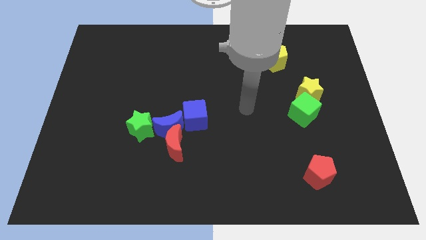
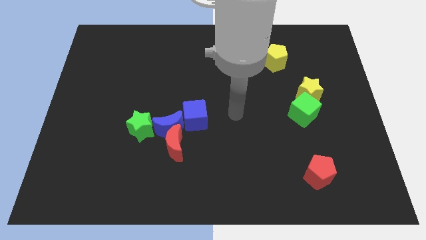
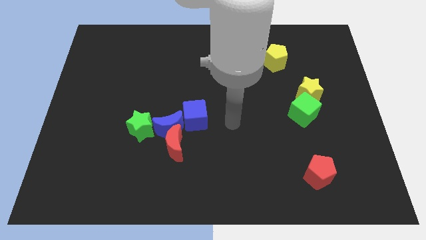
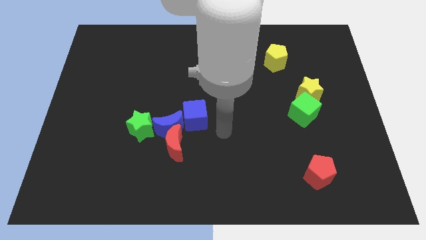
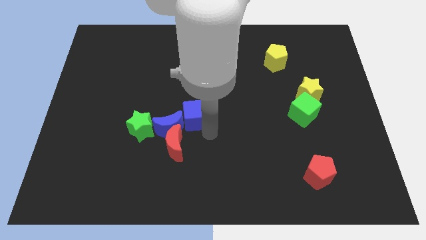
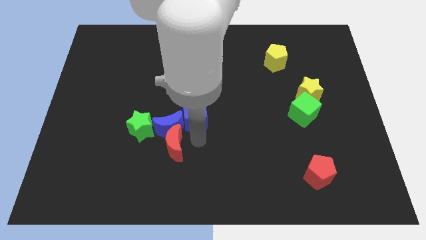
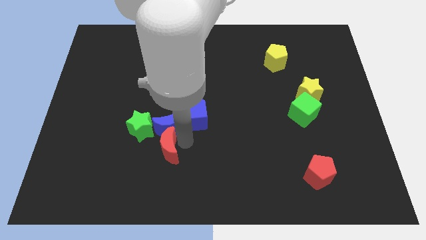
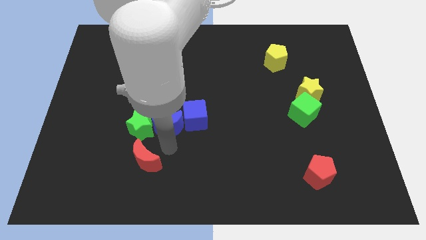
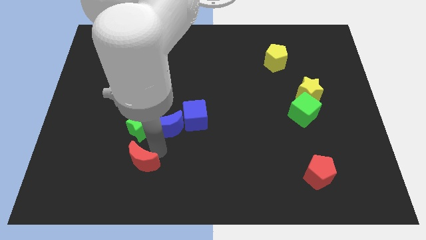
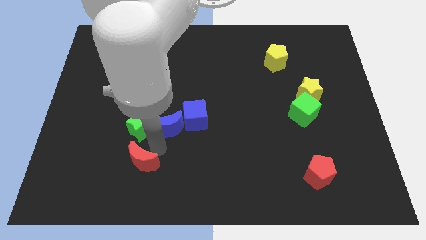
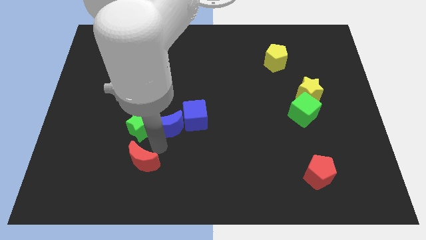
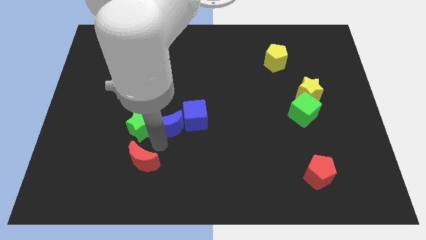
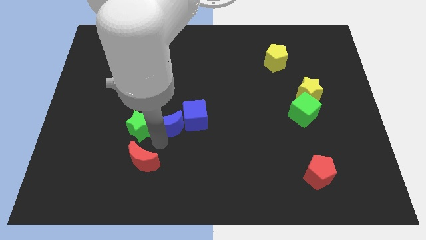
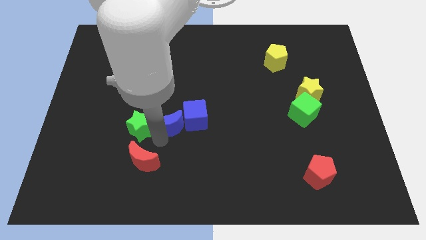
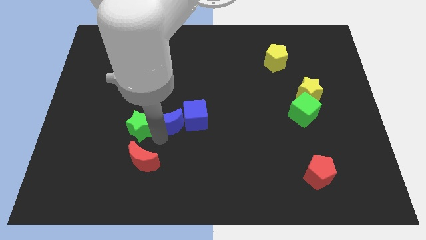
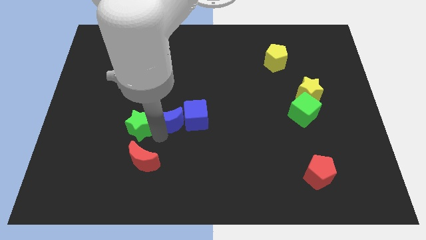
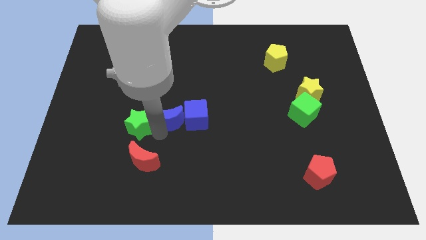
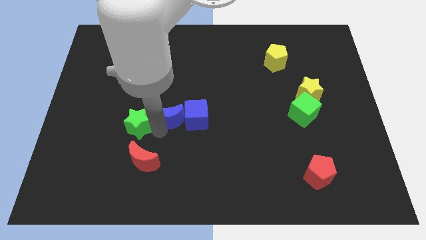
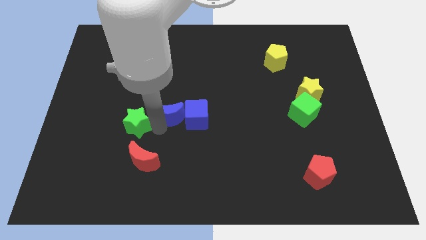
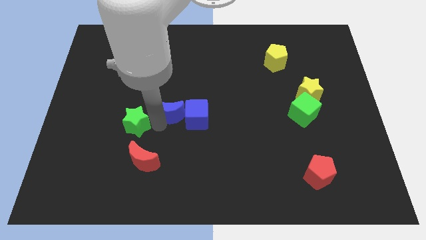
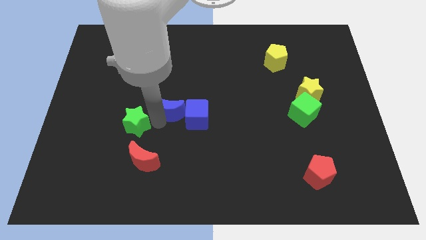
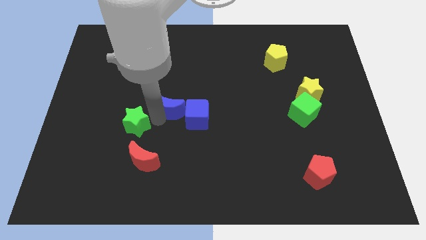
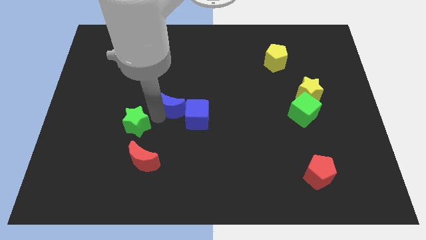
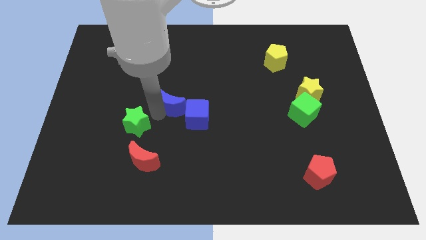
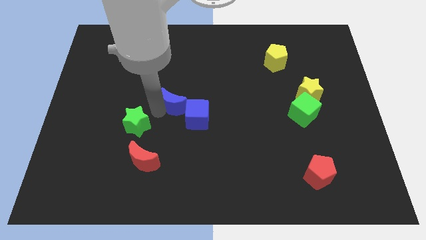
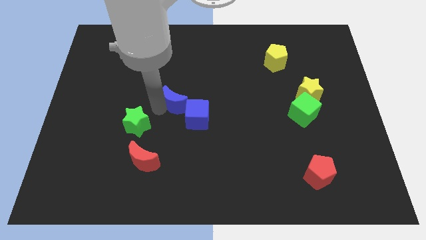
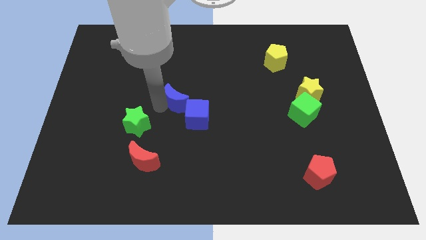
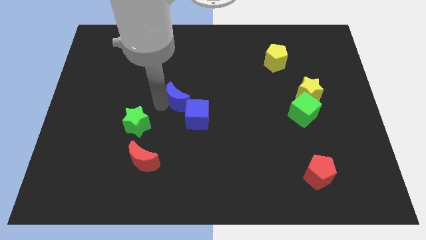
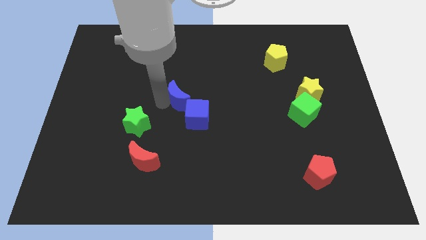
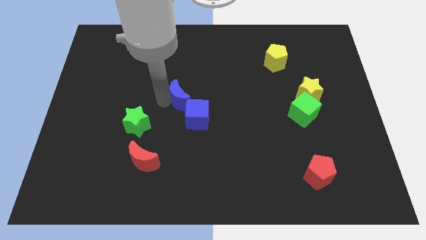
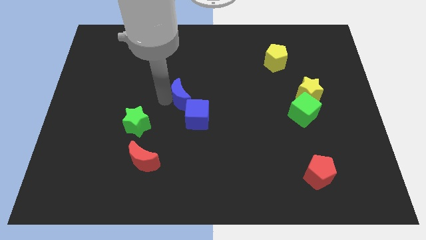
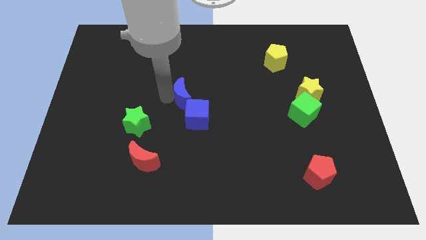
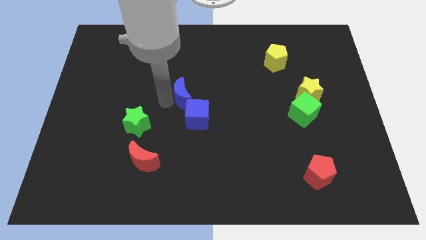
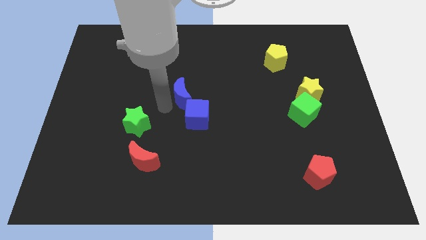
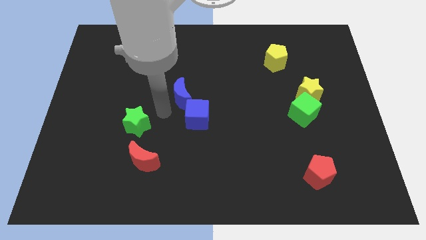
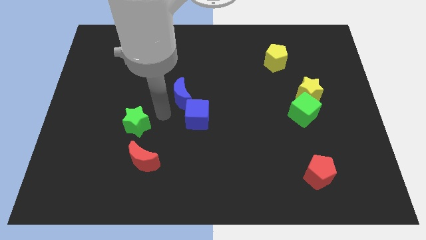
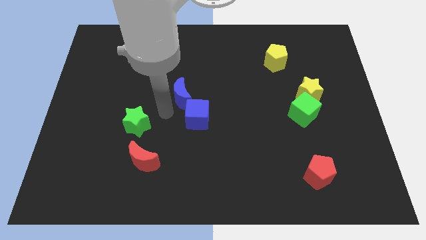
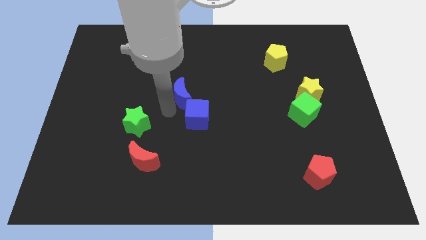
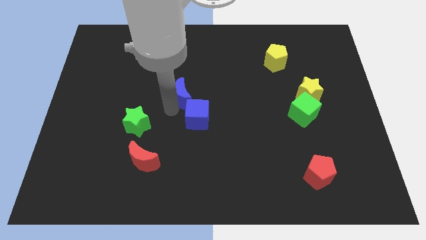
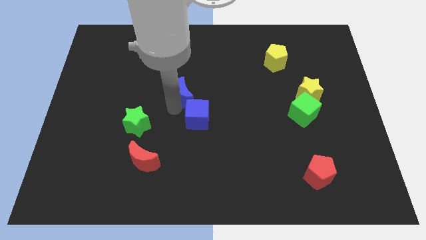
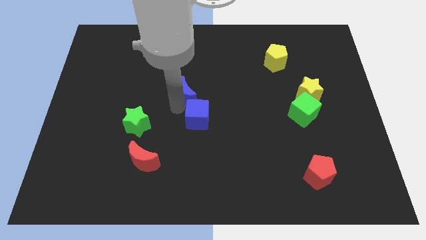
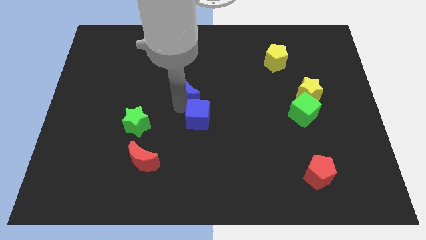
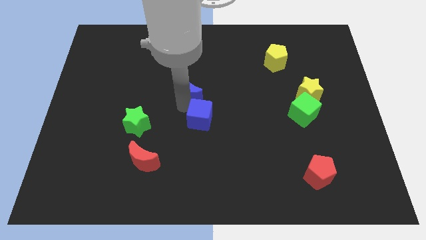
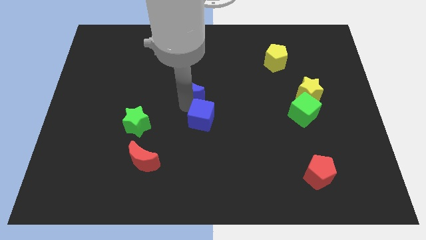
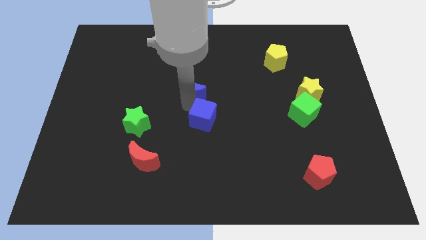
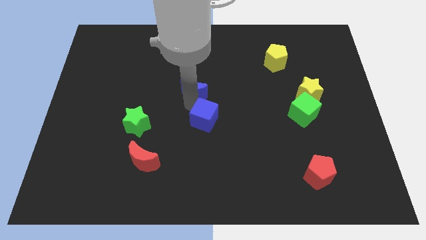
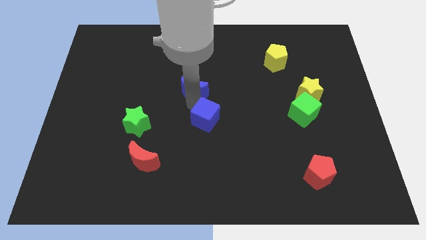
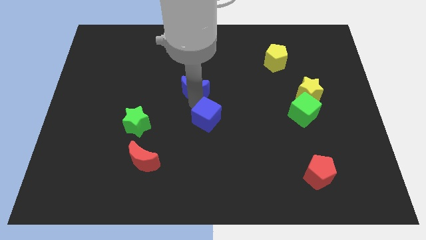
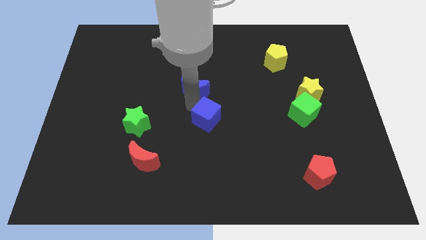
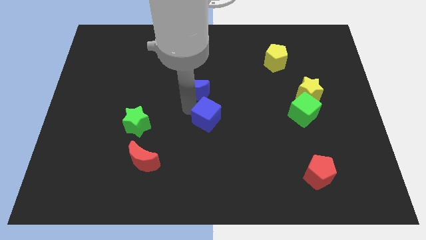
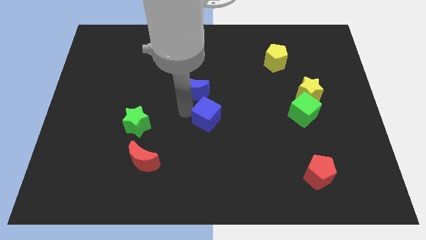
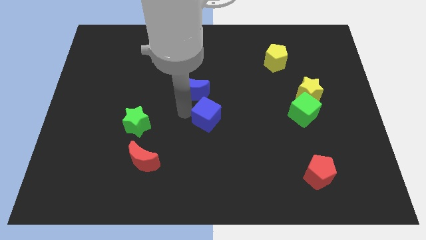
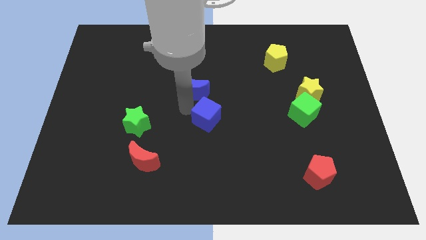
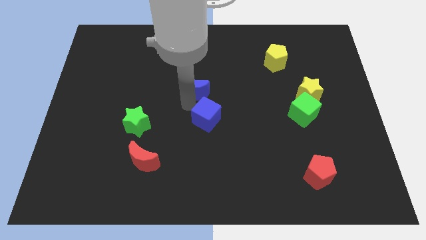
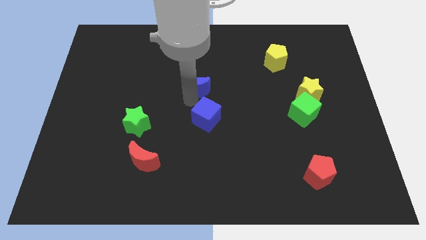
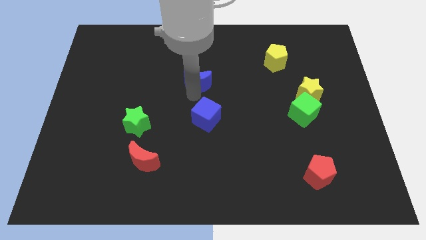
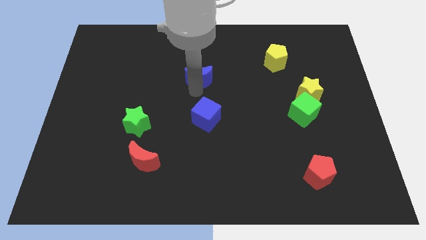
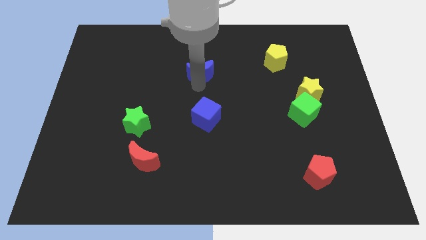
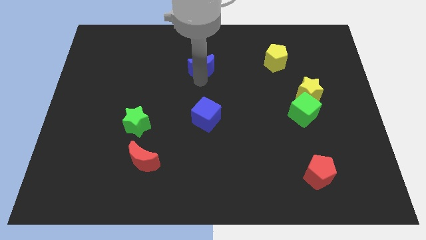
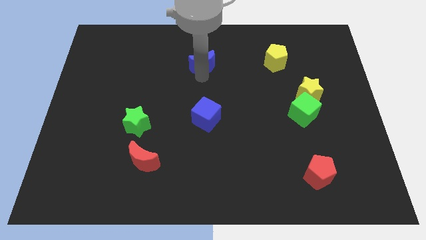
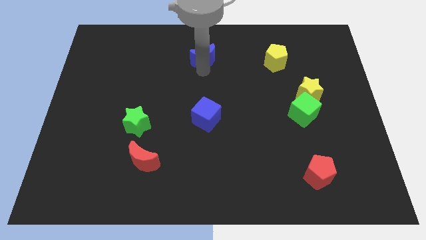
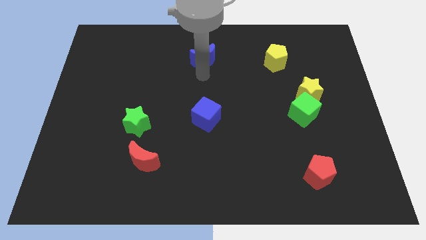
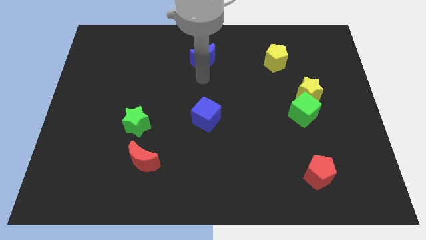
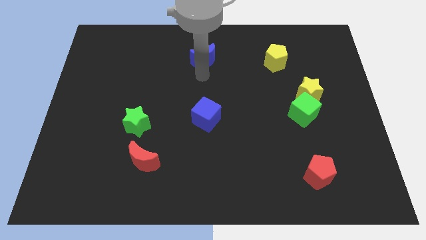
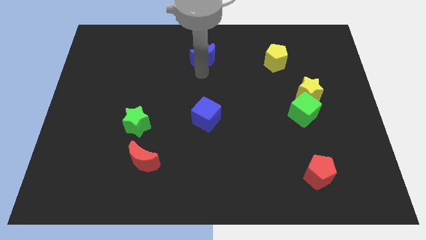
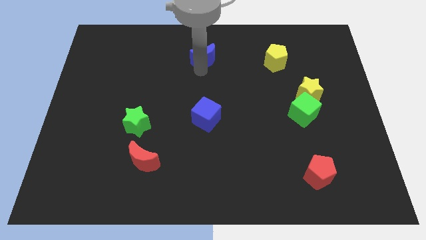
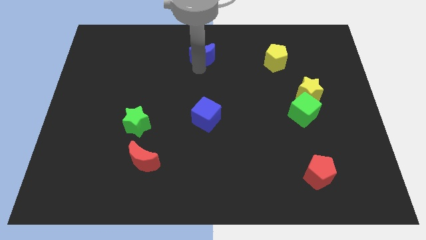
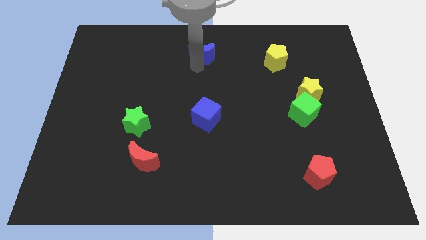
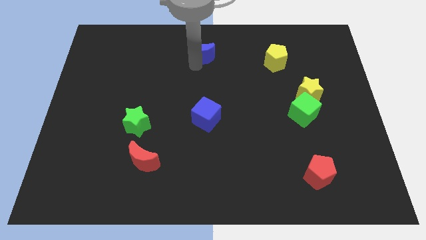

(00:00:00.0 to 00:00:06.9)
slide the blue moon to the top side
